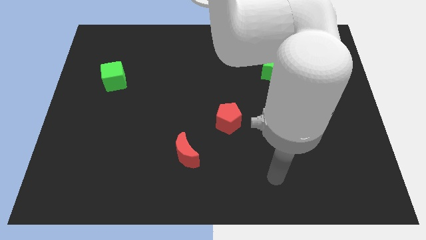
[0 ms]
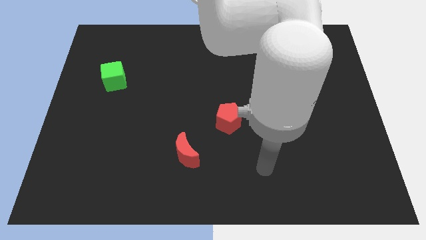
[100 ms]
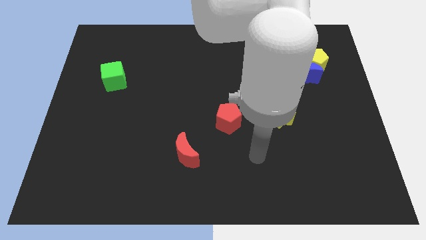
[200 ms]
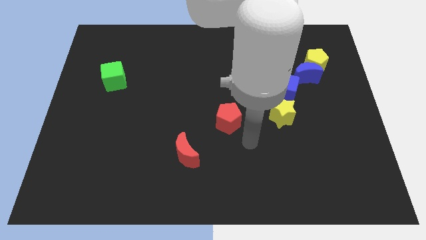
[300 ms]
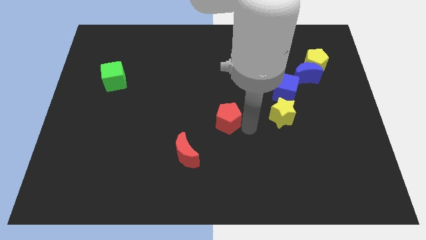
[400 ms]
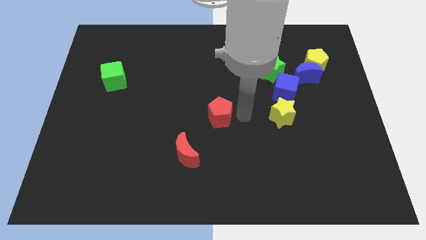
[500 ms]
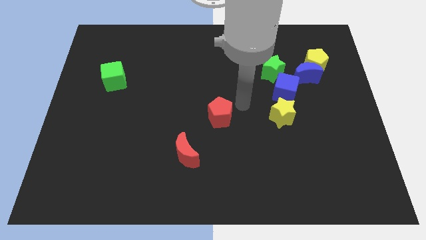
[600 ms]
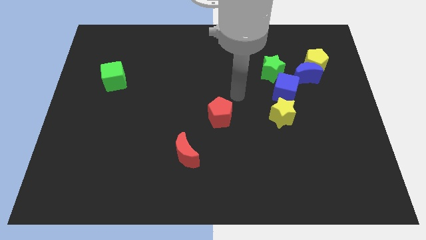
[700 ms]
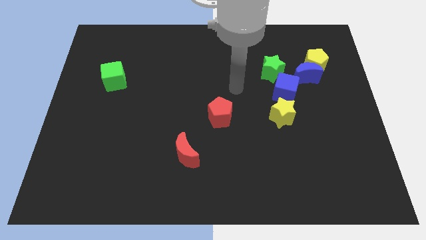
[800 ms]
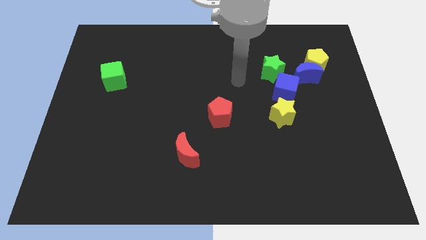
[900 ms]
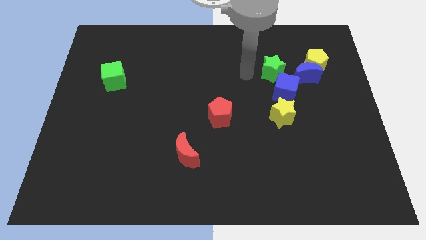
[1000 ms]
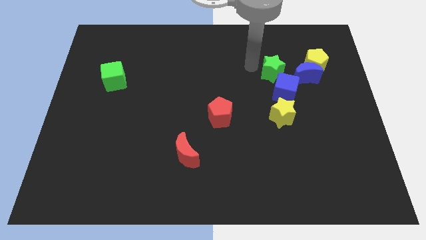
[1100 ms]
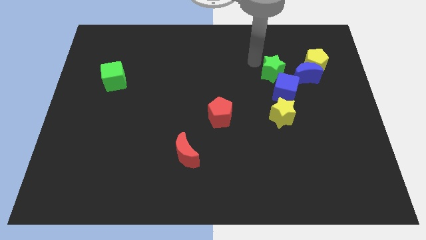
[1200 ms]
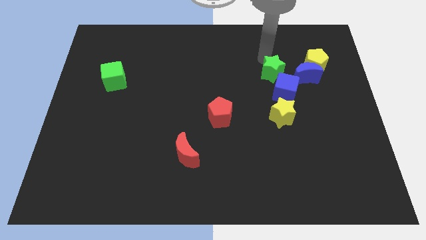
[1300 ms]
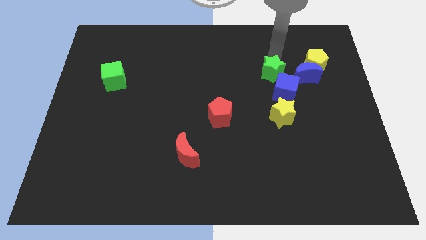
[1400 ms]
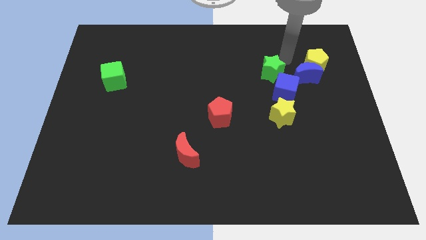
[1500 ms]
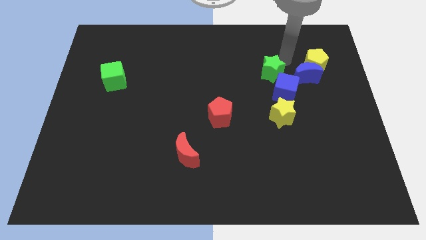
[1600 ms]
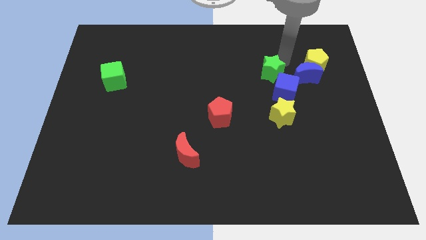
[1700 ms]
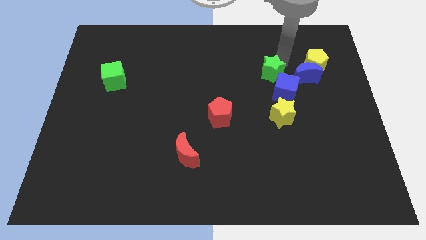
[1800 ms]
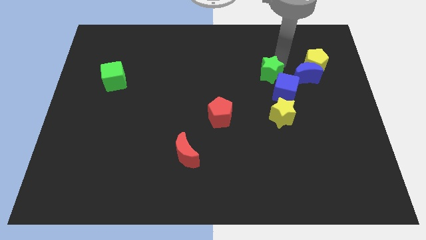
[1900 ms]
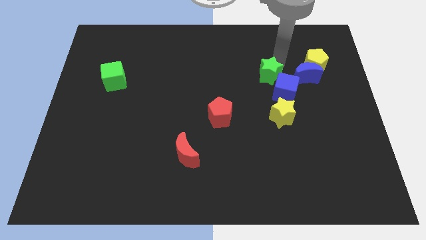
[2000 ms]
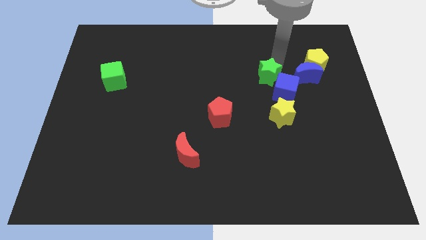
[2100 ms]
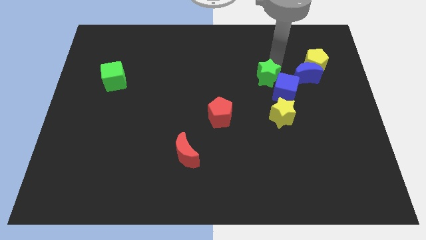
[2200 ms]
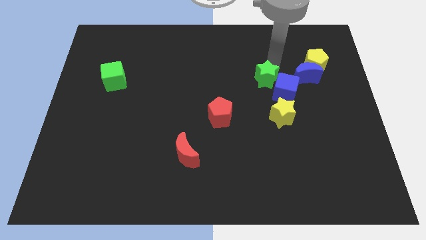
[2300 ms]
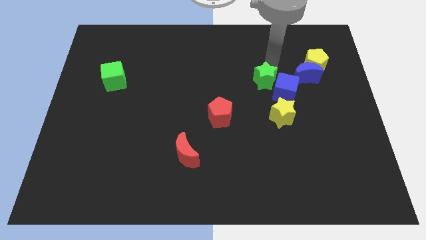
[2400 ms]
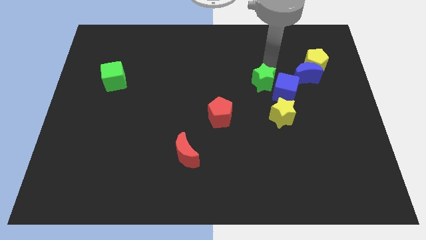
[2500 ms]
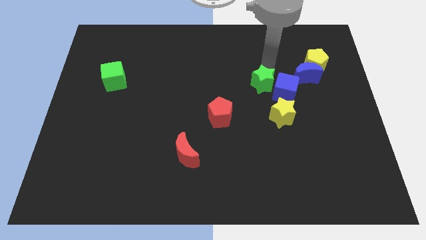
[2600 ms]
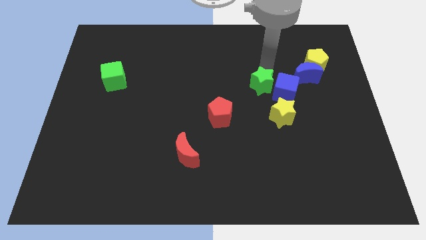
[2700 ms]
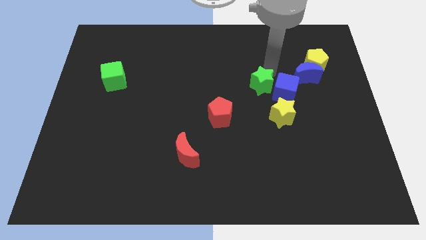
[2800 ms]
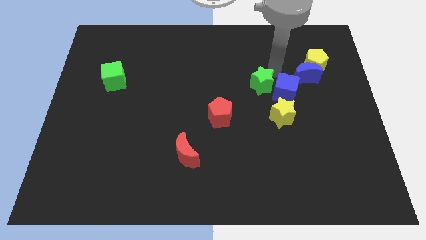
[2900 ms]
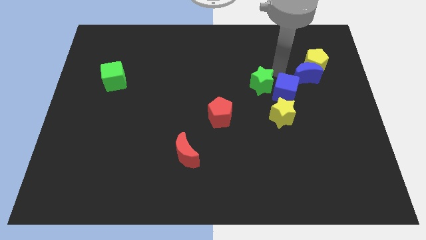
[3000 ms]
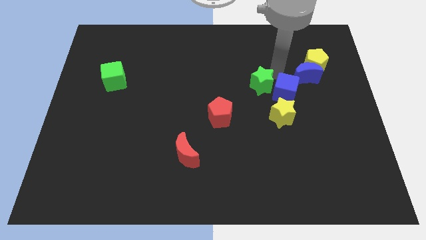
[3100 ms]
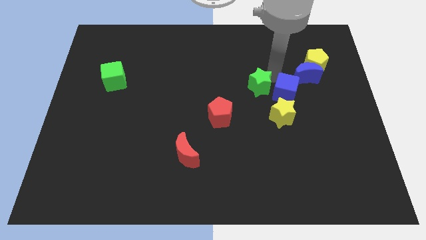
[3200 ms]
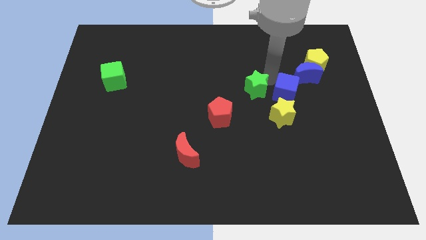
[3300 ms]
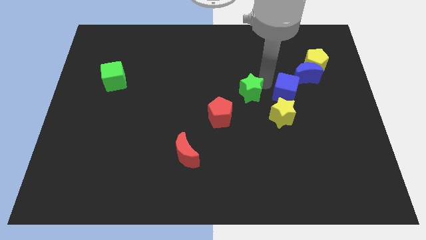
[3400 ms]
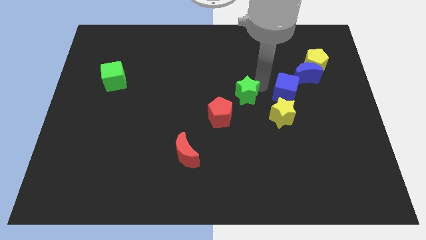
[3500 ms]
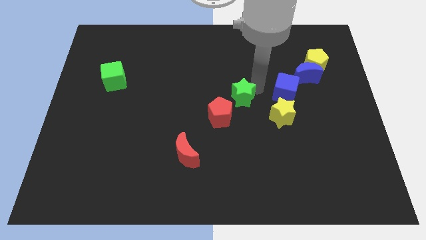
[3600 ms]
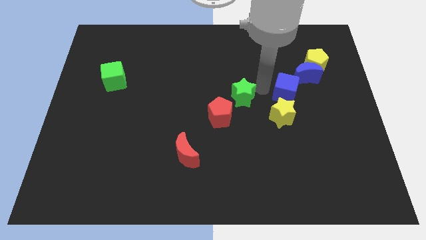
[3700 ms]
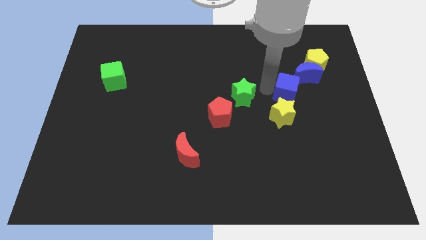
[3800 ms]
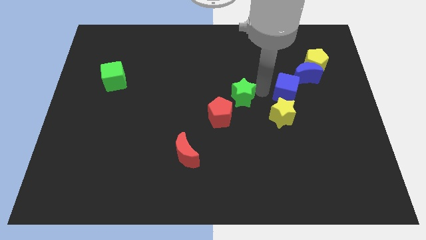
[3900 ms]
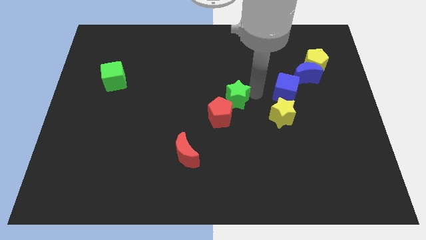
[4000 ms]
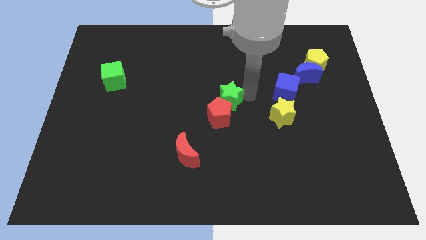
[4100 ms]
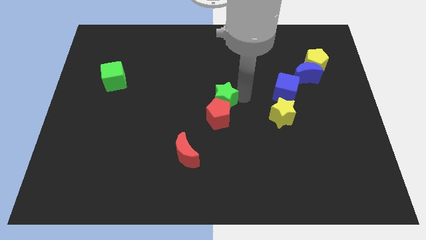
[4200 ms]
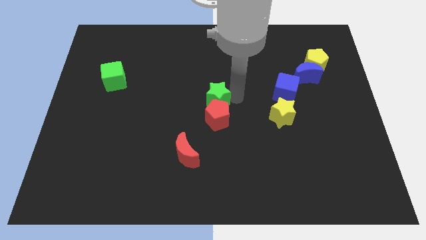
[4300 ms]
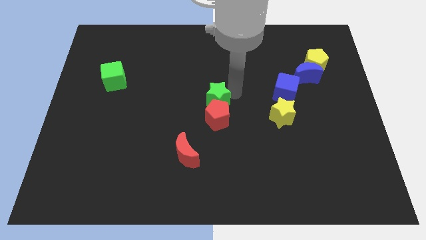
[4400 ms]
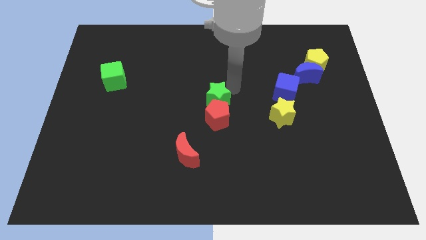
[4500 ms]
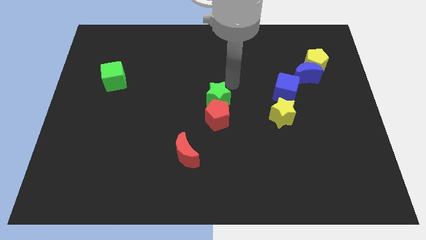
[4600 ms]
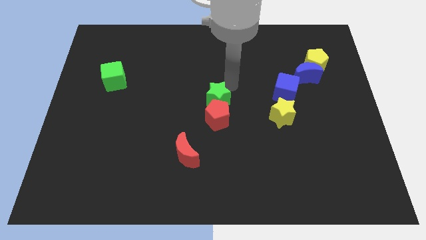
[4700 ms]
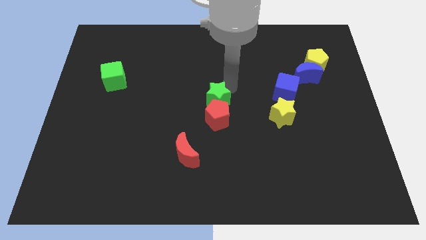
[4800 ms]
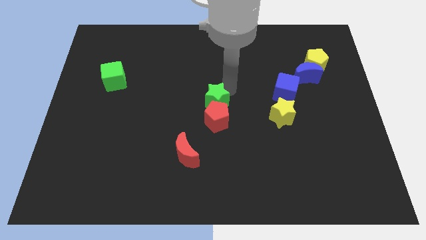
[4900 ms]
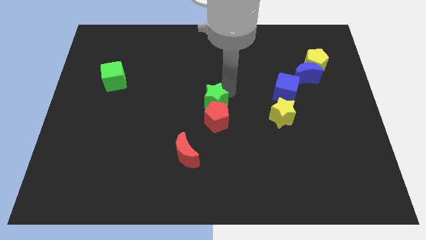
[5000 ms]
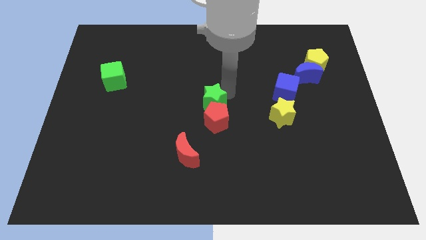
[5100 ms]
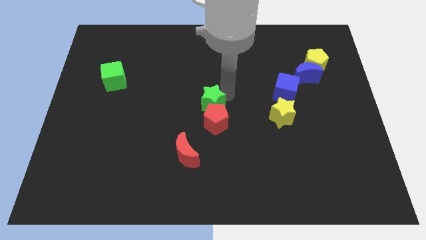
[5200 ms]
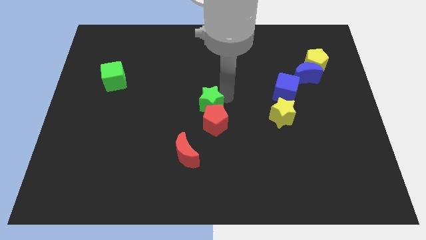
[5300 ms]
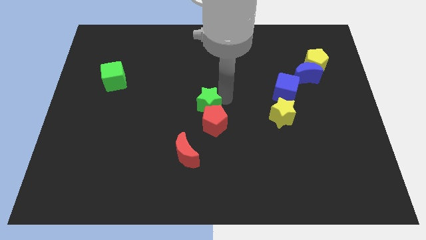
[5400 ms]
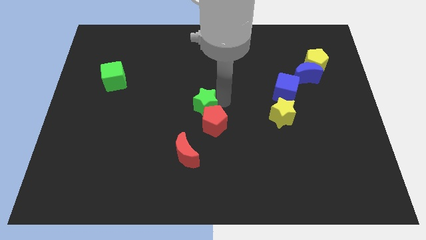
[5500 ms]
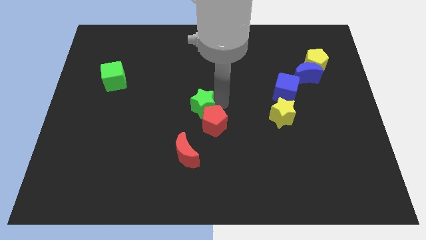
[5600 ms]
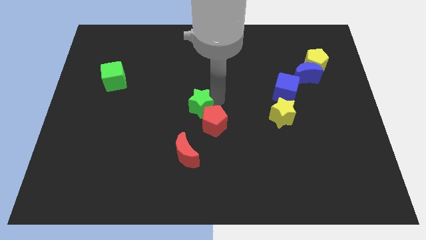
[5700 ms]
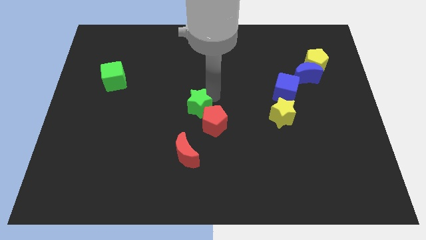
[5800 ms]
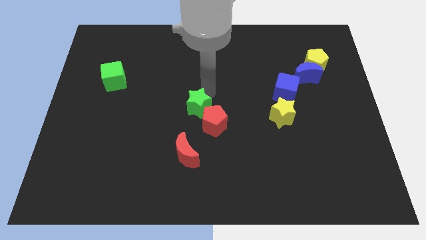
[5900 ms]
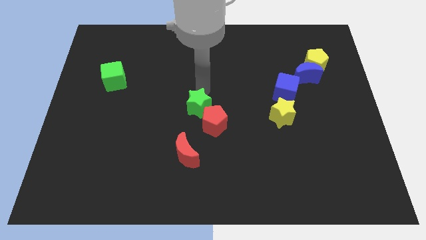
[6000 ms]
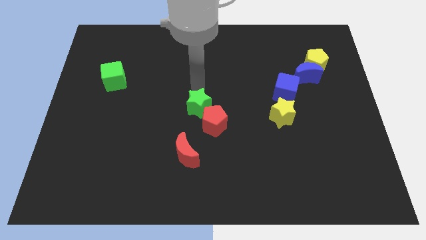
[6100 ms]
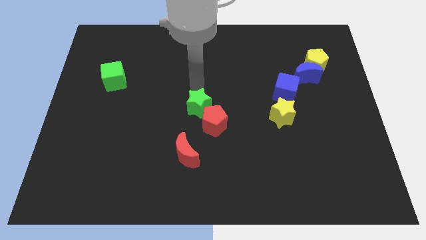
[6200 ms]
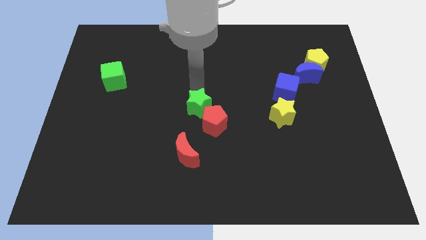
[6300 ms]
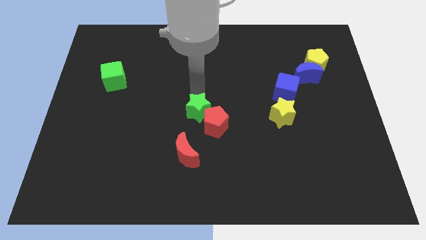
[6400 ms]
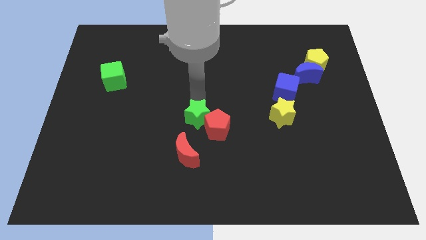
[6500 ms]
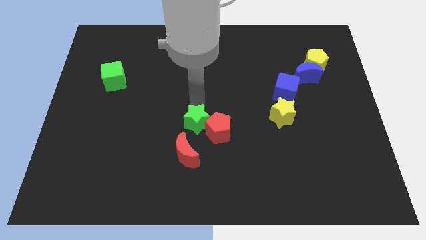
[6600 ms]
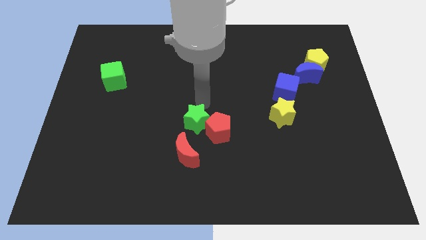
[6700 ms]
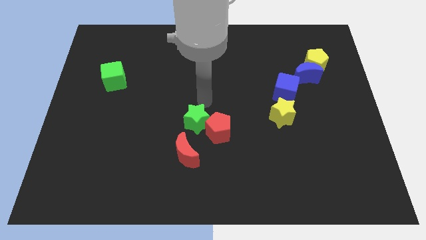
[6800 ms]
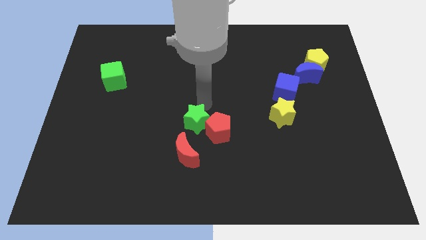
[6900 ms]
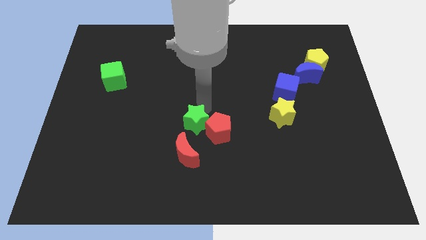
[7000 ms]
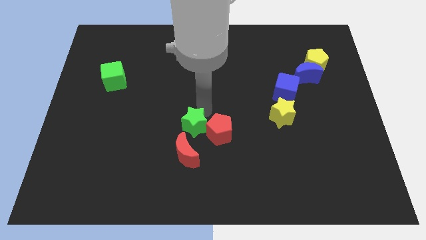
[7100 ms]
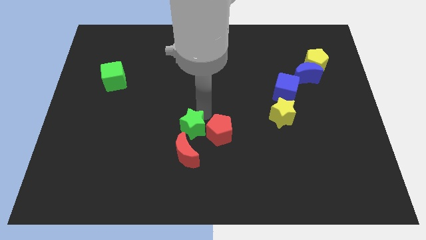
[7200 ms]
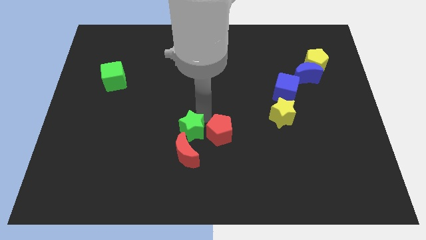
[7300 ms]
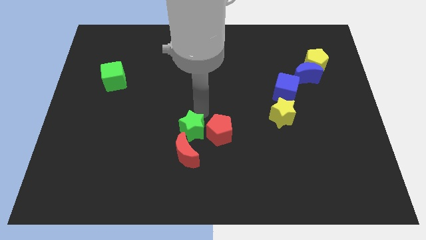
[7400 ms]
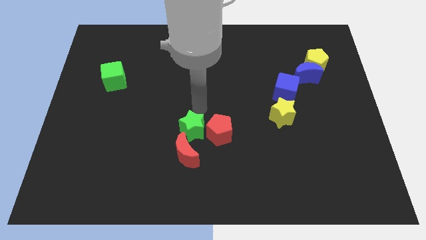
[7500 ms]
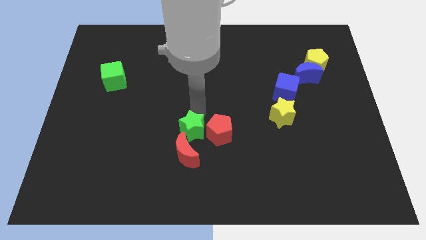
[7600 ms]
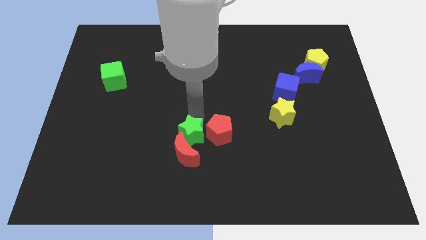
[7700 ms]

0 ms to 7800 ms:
move the green star next to the red moon
